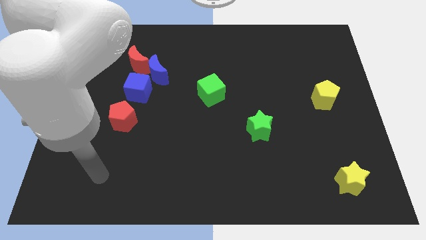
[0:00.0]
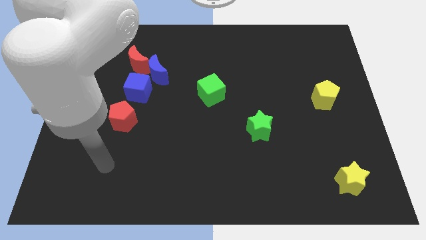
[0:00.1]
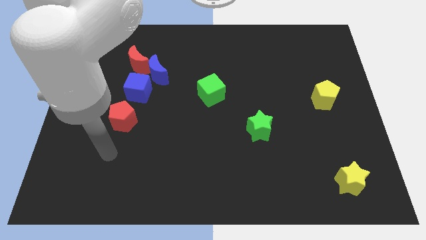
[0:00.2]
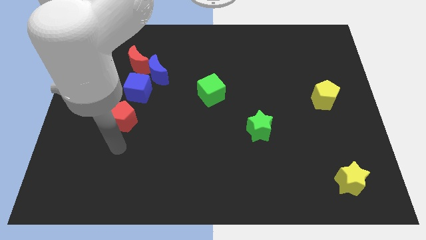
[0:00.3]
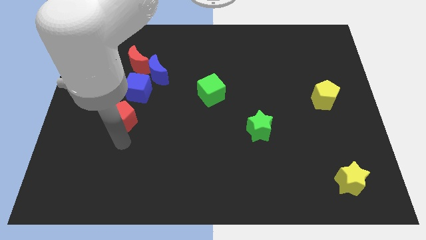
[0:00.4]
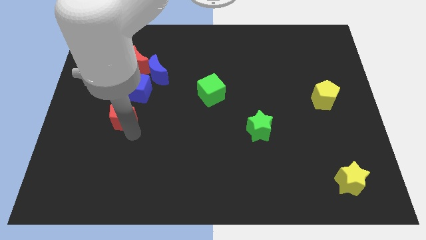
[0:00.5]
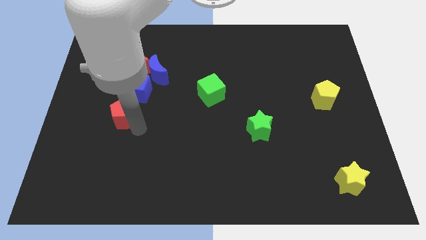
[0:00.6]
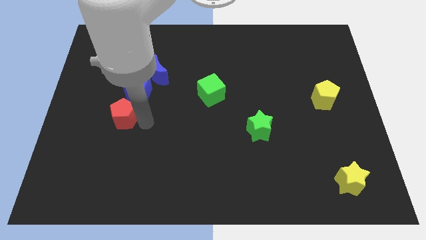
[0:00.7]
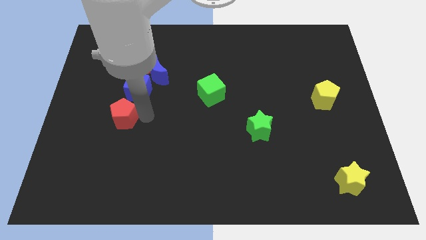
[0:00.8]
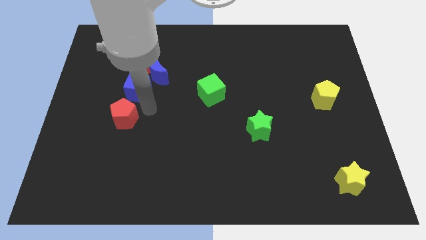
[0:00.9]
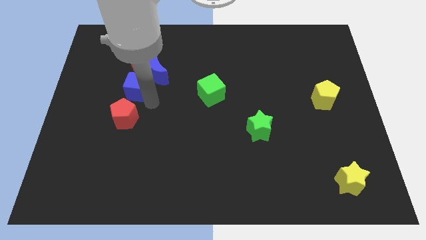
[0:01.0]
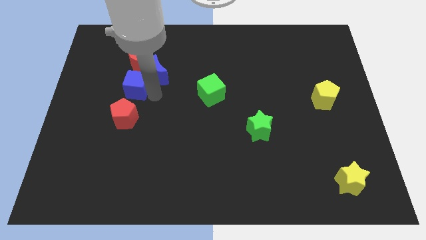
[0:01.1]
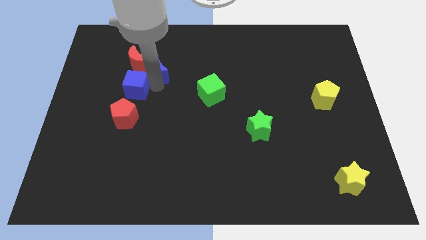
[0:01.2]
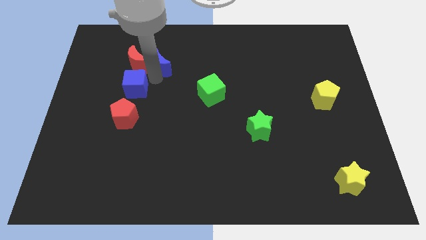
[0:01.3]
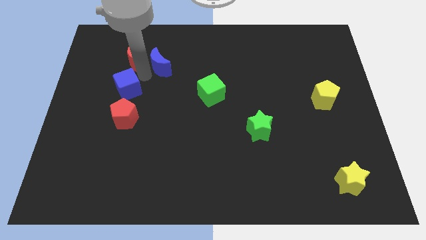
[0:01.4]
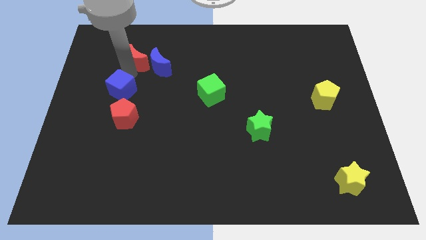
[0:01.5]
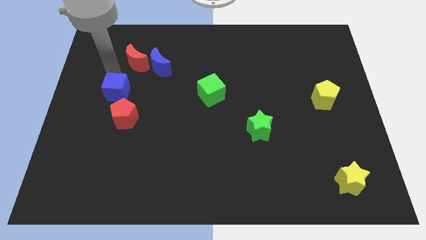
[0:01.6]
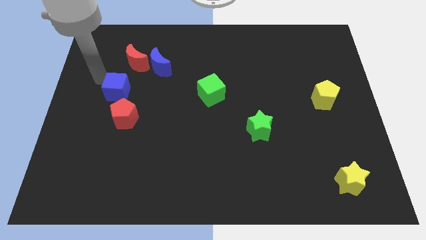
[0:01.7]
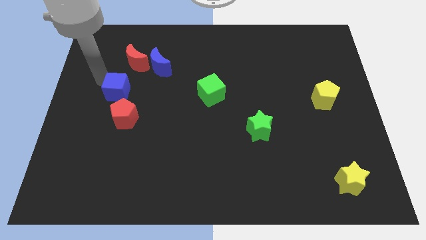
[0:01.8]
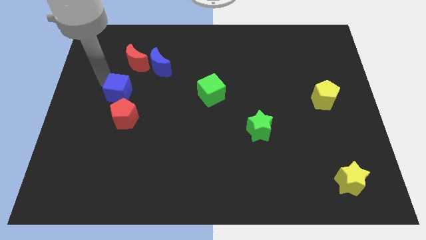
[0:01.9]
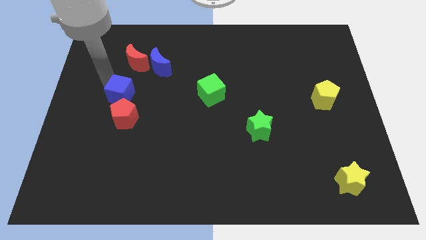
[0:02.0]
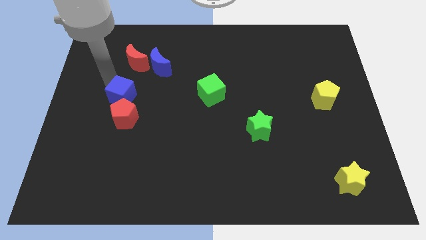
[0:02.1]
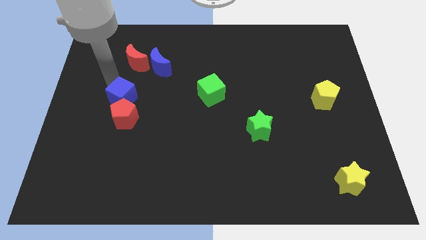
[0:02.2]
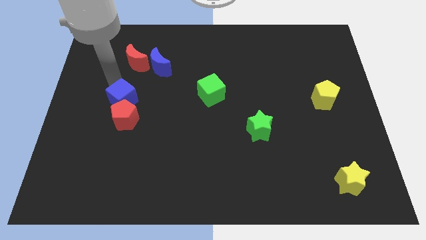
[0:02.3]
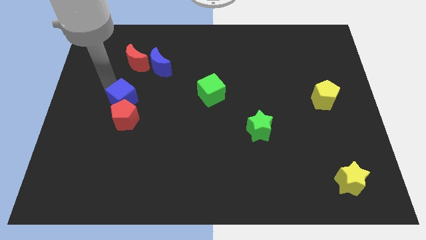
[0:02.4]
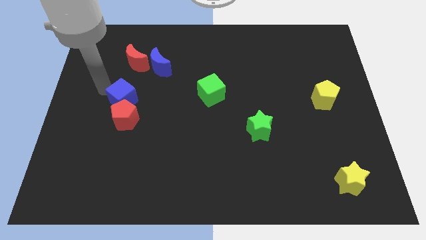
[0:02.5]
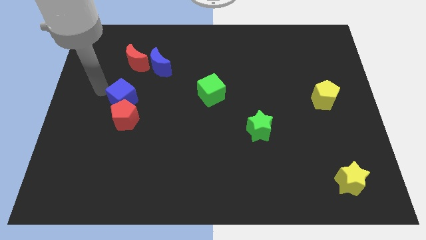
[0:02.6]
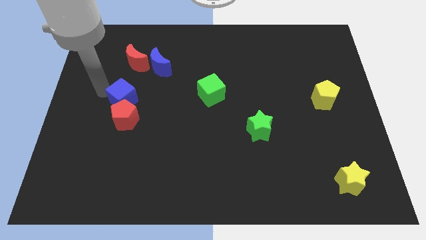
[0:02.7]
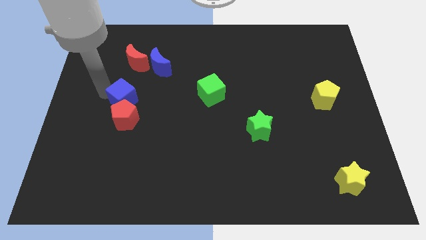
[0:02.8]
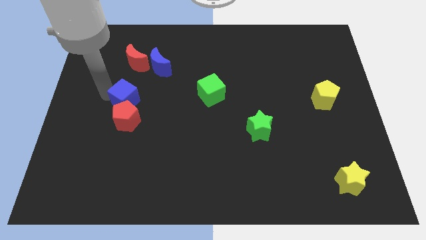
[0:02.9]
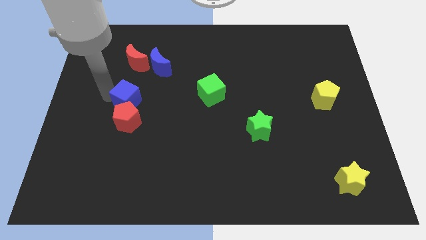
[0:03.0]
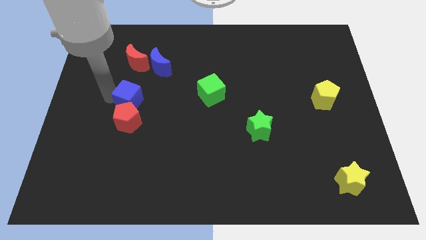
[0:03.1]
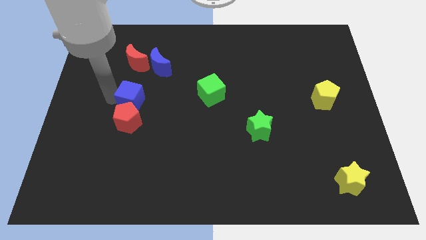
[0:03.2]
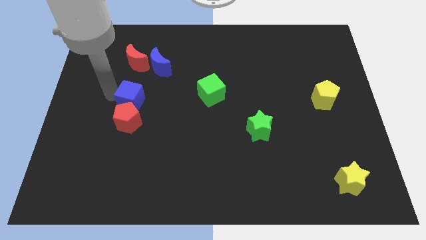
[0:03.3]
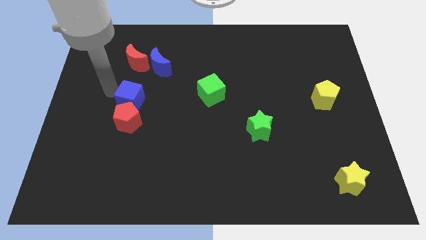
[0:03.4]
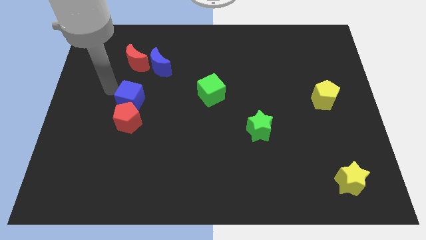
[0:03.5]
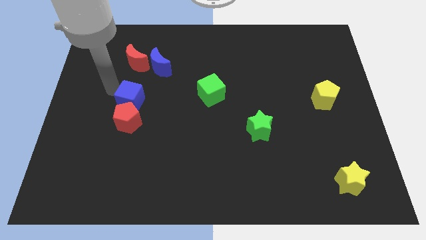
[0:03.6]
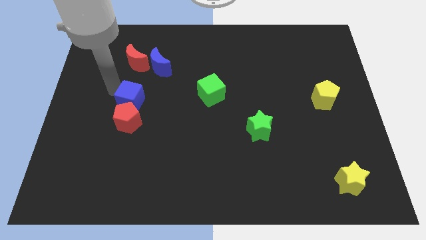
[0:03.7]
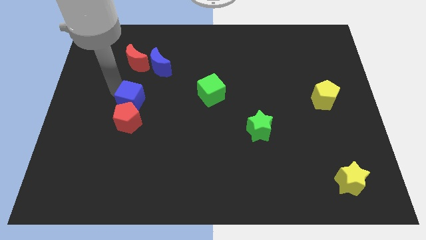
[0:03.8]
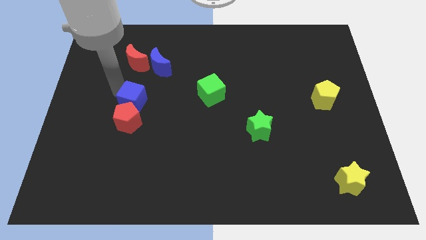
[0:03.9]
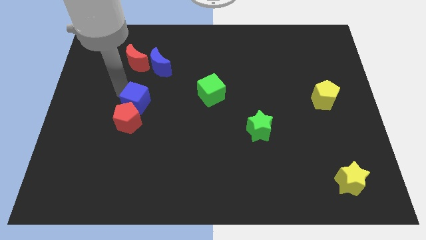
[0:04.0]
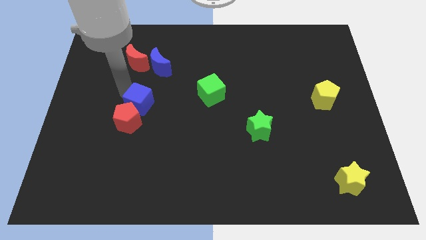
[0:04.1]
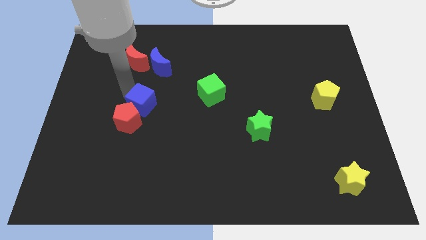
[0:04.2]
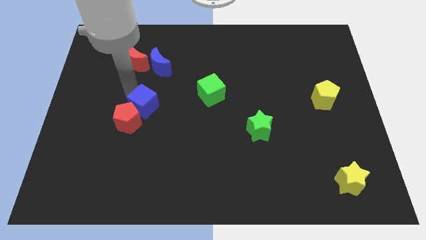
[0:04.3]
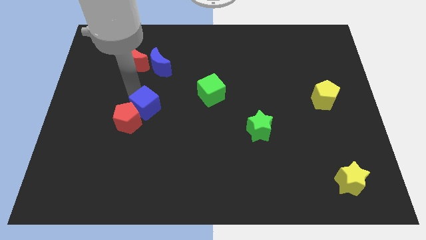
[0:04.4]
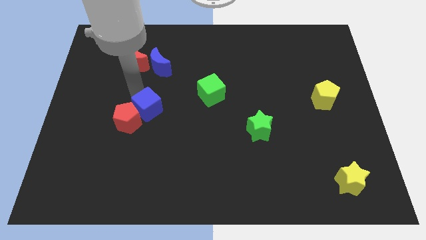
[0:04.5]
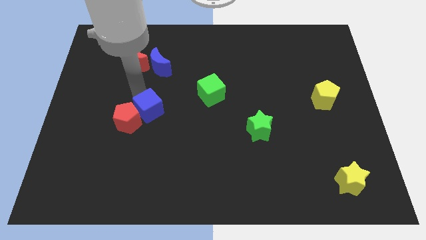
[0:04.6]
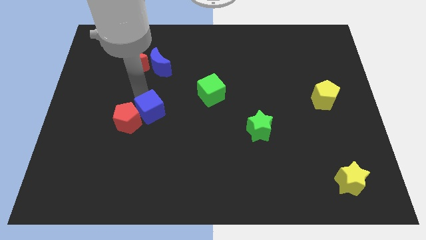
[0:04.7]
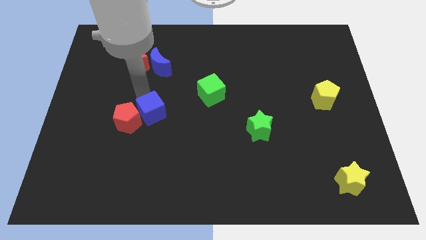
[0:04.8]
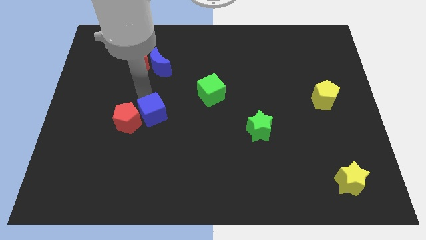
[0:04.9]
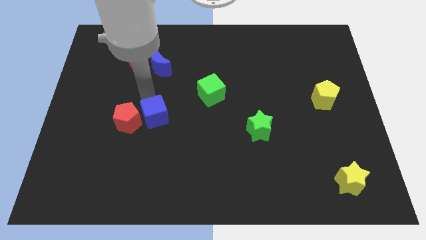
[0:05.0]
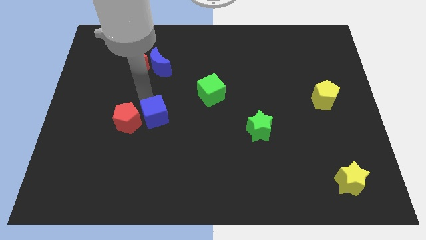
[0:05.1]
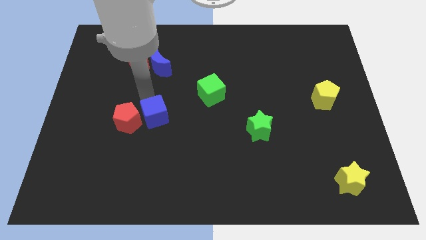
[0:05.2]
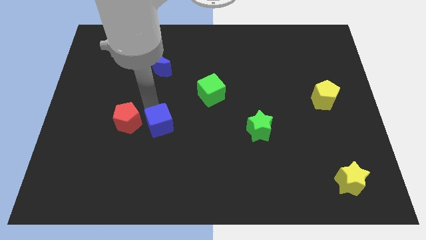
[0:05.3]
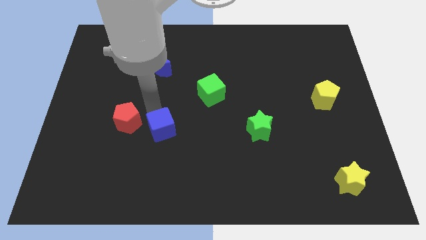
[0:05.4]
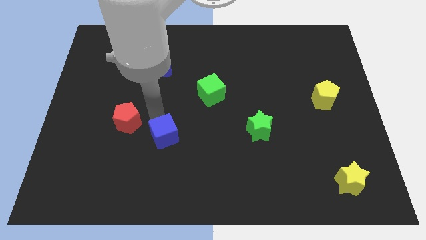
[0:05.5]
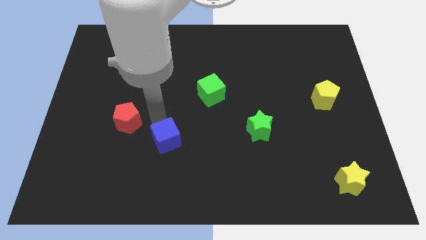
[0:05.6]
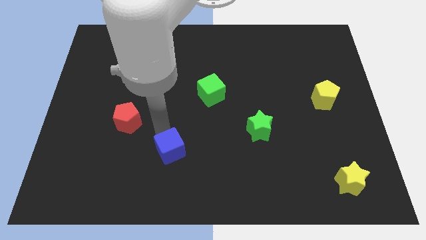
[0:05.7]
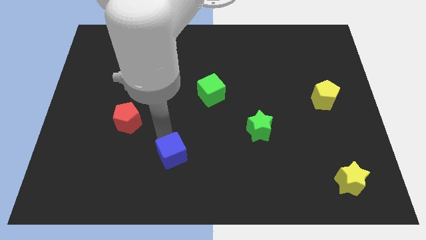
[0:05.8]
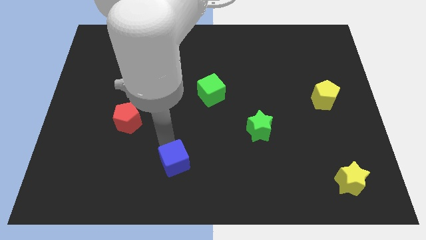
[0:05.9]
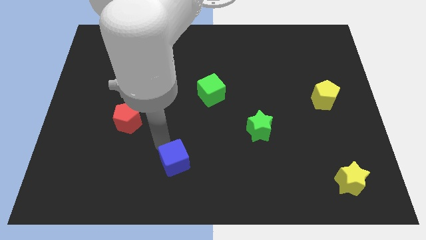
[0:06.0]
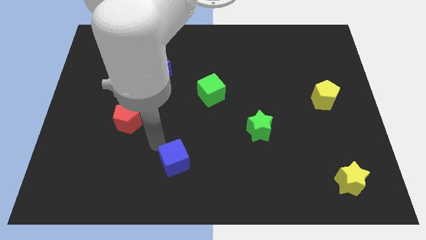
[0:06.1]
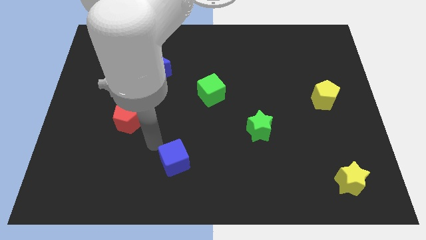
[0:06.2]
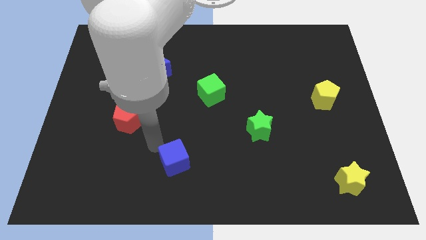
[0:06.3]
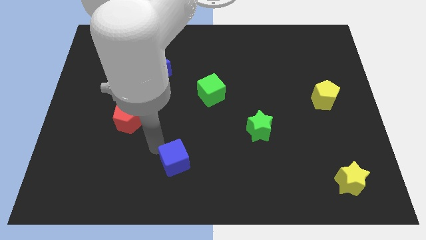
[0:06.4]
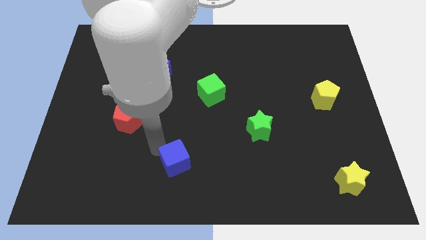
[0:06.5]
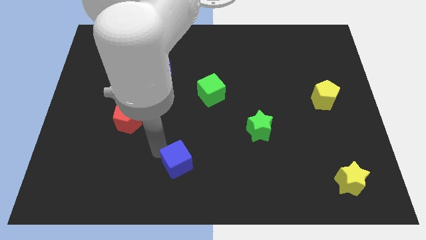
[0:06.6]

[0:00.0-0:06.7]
put the blue cube to the bottom
